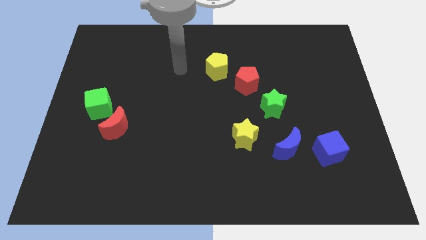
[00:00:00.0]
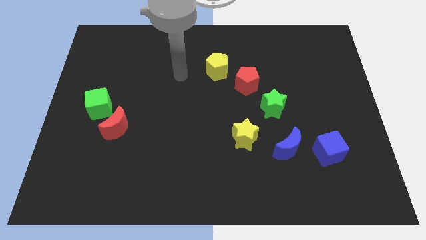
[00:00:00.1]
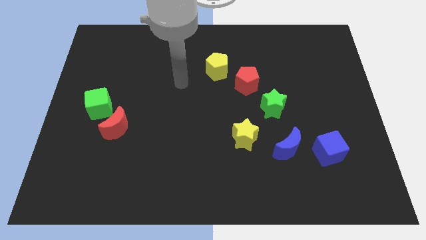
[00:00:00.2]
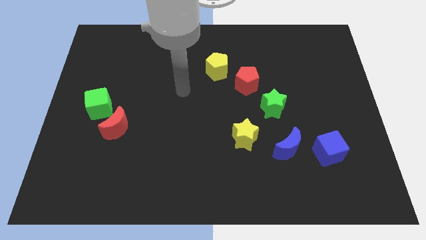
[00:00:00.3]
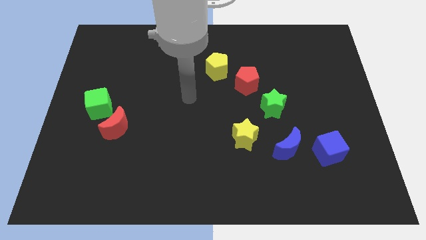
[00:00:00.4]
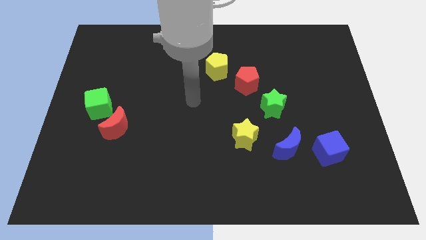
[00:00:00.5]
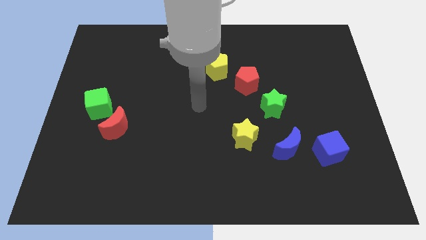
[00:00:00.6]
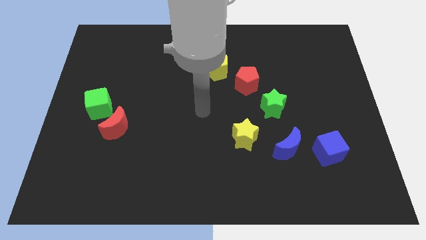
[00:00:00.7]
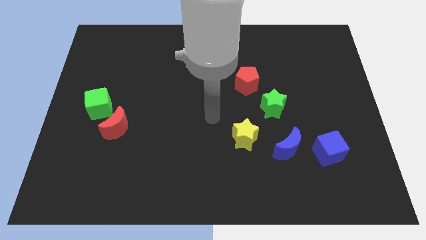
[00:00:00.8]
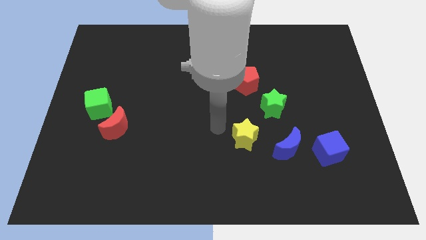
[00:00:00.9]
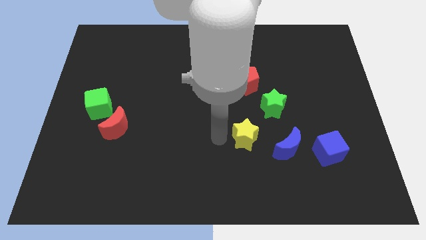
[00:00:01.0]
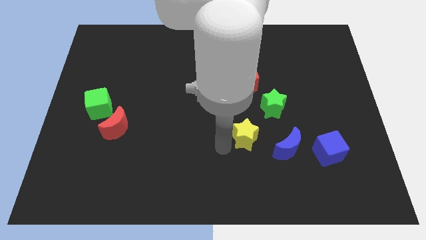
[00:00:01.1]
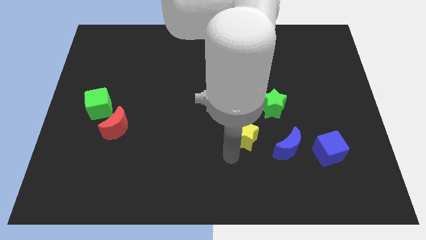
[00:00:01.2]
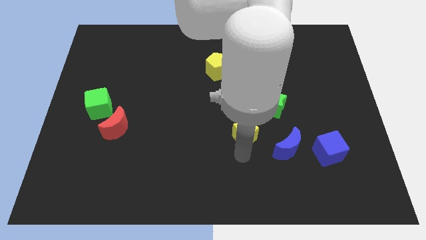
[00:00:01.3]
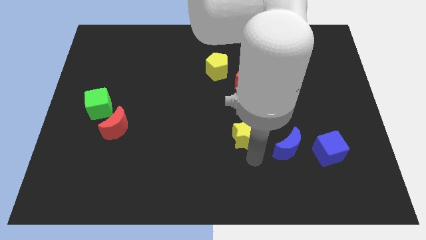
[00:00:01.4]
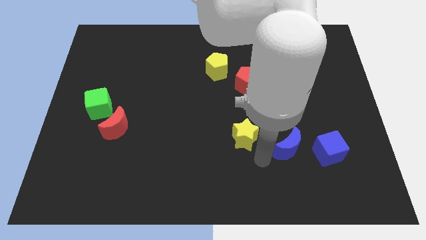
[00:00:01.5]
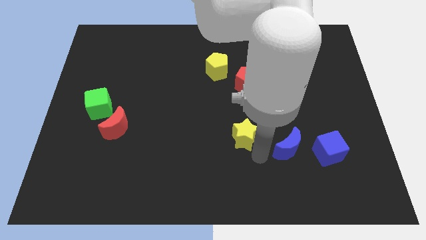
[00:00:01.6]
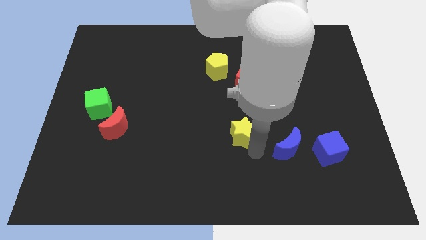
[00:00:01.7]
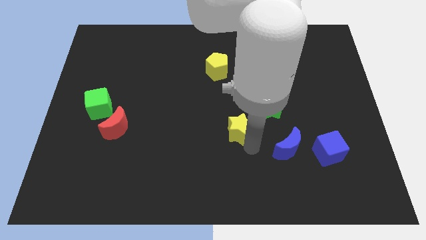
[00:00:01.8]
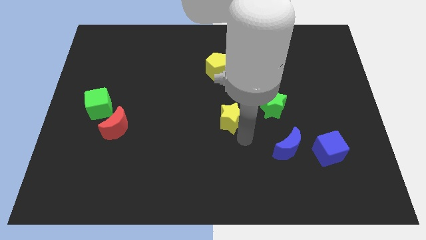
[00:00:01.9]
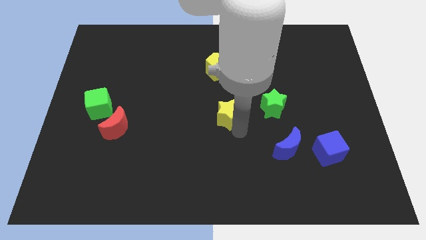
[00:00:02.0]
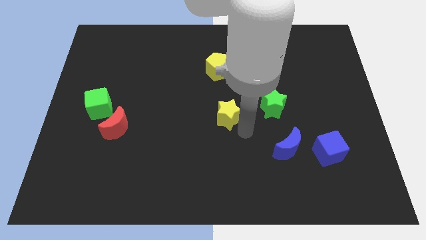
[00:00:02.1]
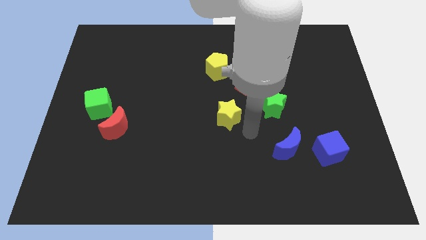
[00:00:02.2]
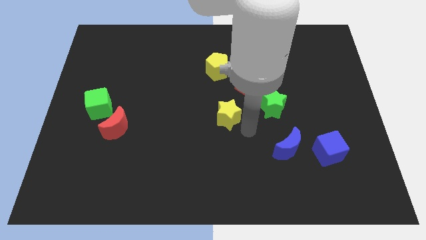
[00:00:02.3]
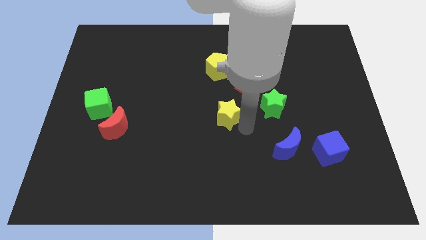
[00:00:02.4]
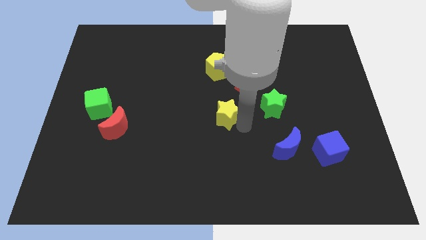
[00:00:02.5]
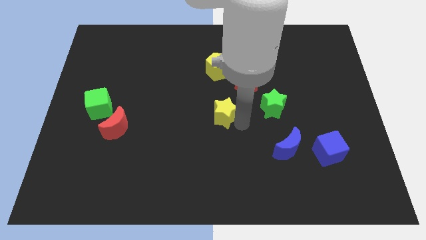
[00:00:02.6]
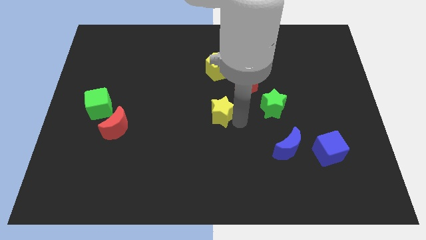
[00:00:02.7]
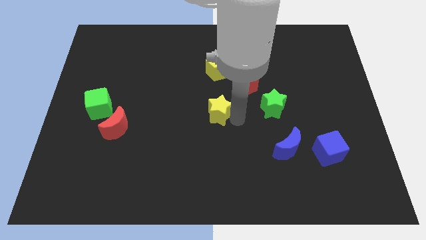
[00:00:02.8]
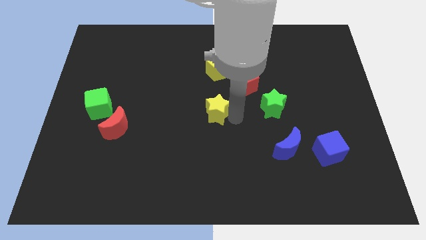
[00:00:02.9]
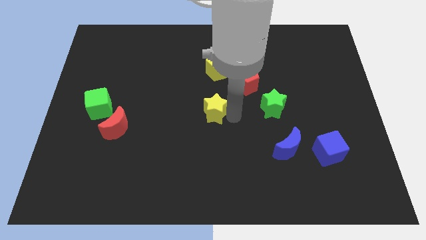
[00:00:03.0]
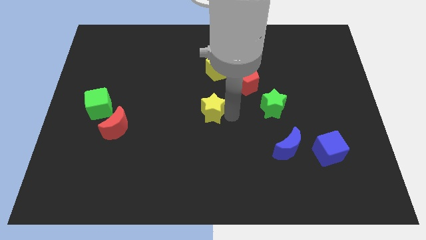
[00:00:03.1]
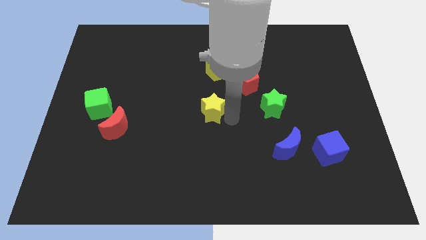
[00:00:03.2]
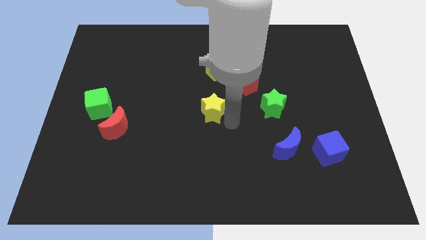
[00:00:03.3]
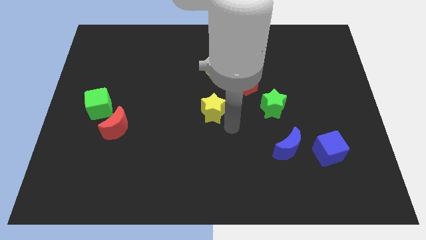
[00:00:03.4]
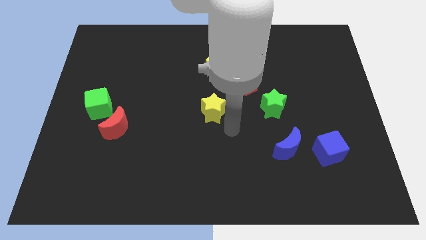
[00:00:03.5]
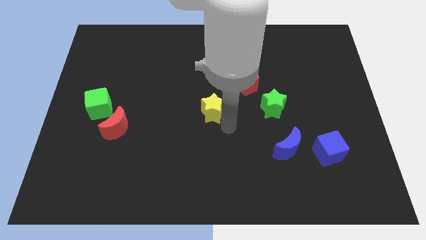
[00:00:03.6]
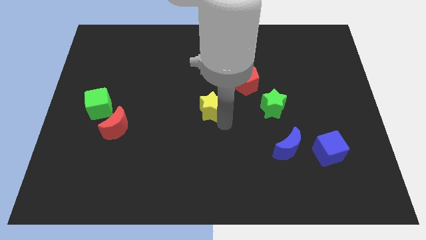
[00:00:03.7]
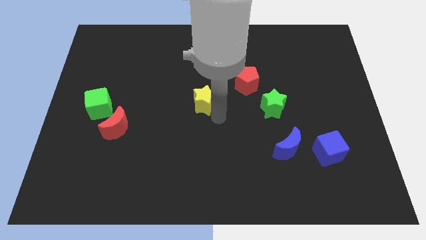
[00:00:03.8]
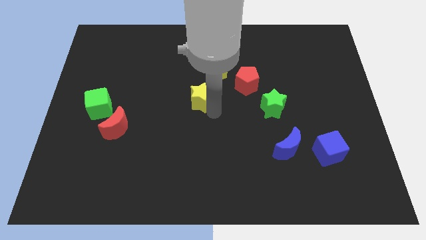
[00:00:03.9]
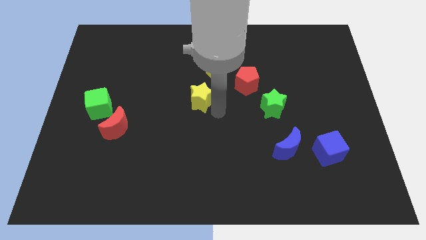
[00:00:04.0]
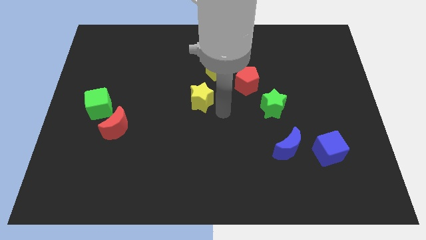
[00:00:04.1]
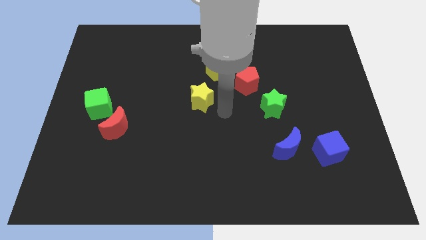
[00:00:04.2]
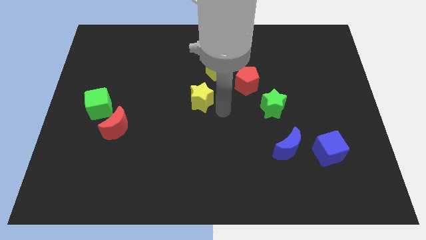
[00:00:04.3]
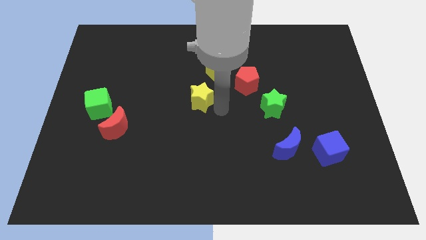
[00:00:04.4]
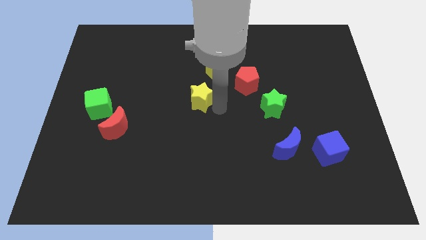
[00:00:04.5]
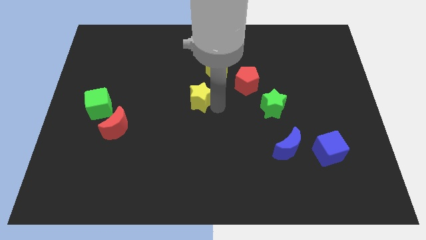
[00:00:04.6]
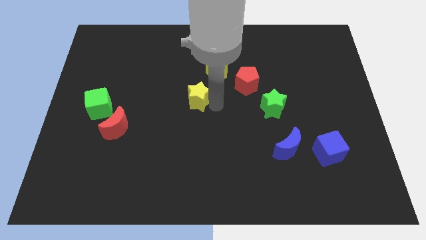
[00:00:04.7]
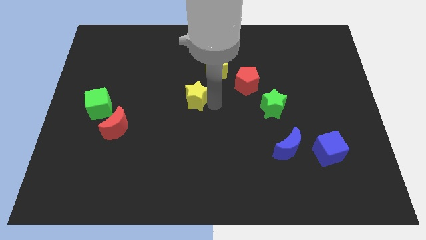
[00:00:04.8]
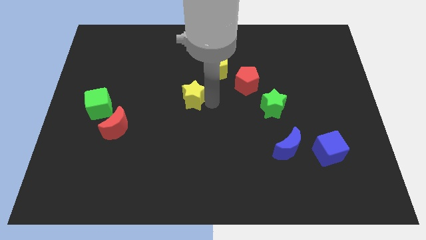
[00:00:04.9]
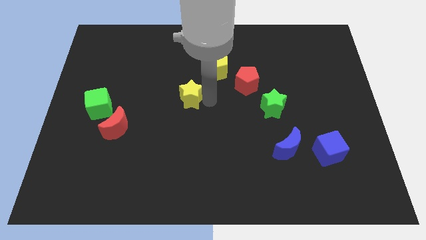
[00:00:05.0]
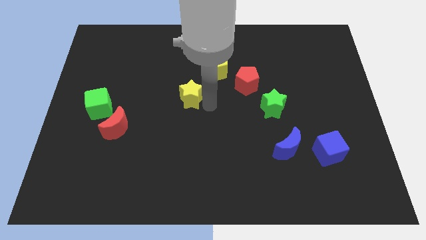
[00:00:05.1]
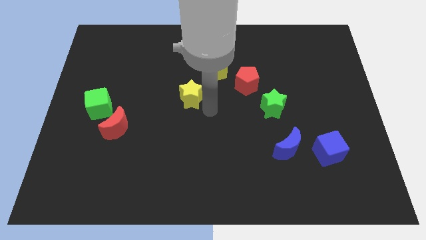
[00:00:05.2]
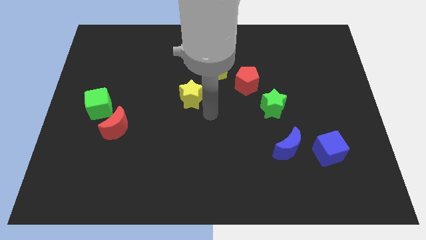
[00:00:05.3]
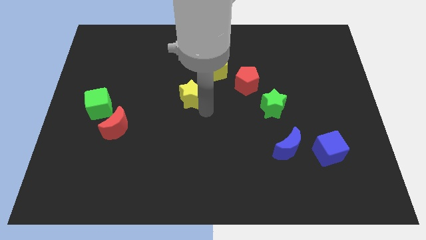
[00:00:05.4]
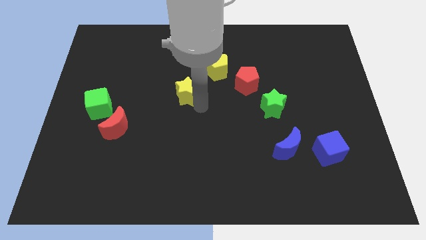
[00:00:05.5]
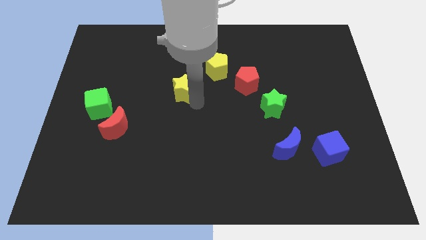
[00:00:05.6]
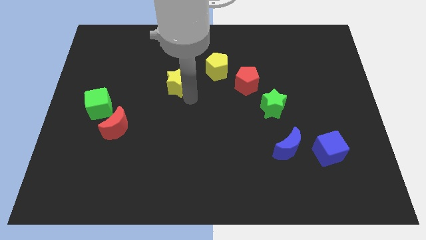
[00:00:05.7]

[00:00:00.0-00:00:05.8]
push the yellow star upwards and then to the left

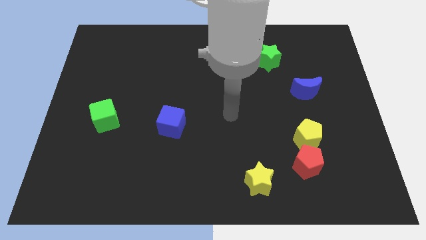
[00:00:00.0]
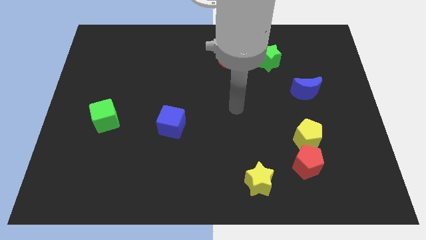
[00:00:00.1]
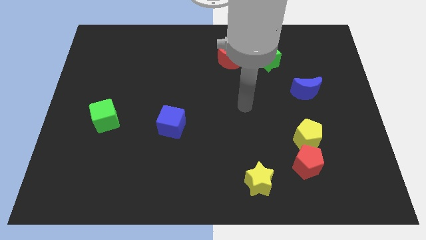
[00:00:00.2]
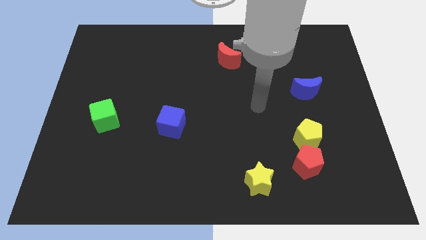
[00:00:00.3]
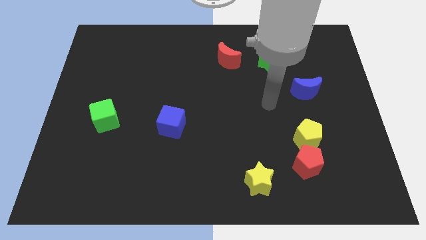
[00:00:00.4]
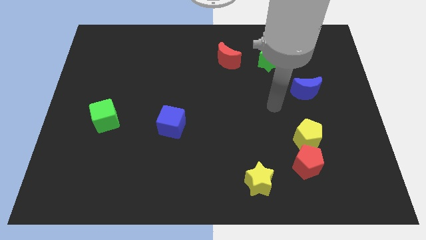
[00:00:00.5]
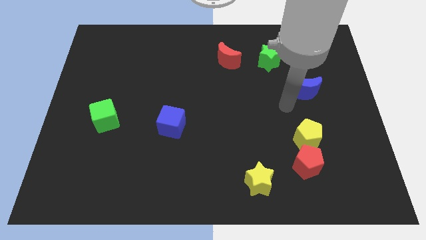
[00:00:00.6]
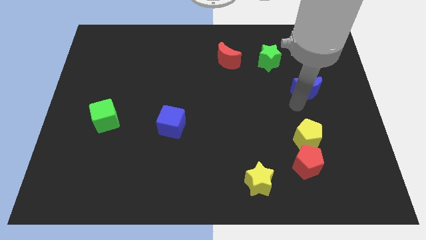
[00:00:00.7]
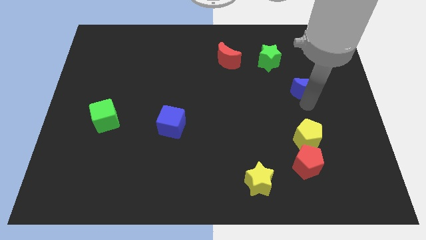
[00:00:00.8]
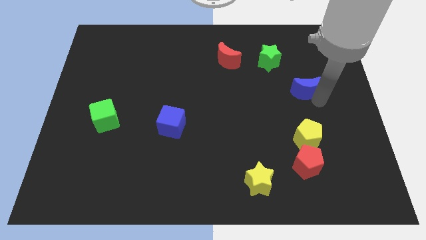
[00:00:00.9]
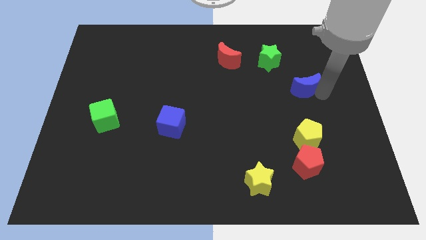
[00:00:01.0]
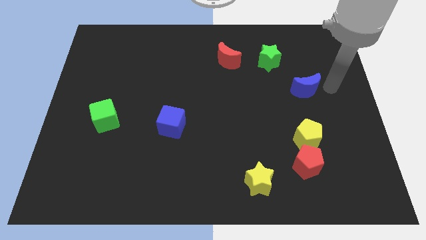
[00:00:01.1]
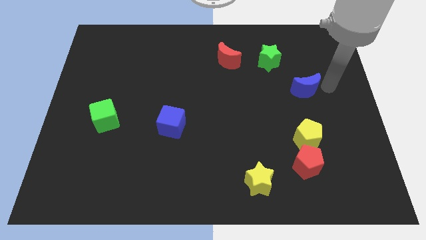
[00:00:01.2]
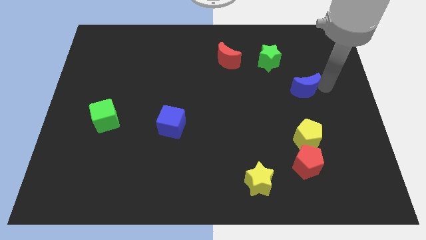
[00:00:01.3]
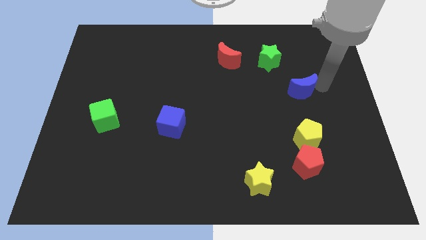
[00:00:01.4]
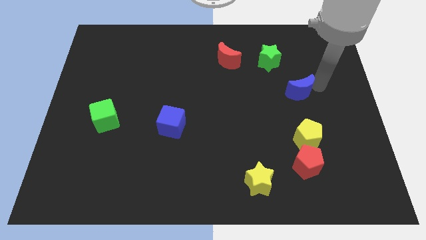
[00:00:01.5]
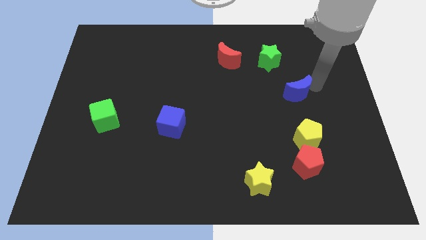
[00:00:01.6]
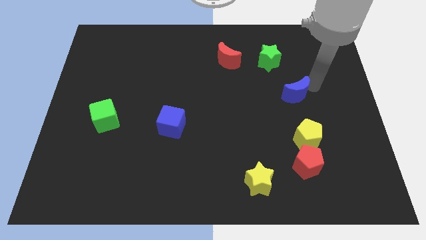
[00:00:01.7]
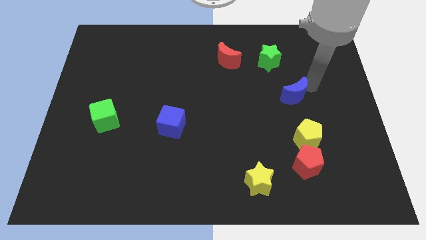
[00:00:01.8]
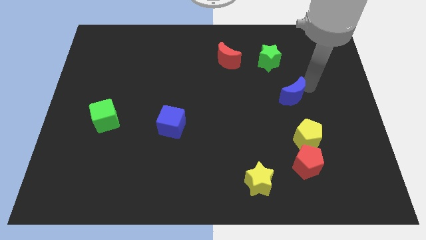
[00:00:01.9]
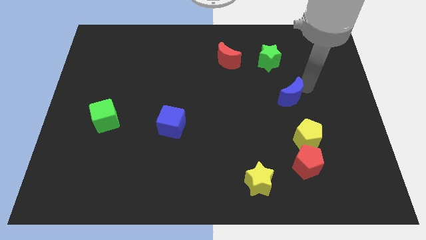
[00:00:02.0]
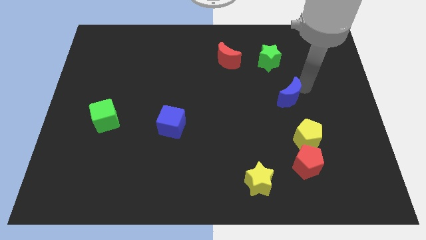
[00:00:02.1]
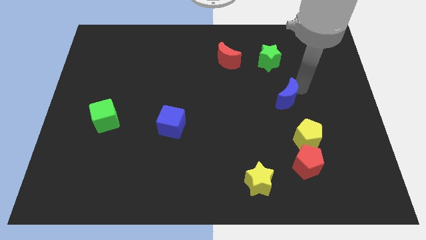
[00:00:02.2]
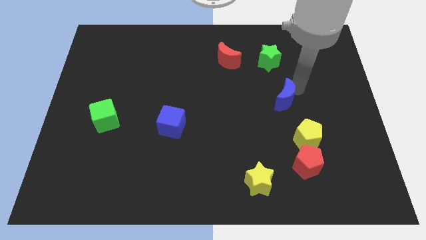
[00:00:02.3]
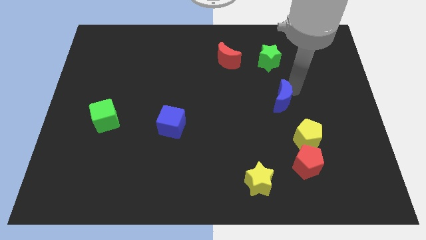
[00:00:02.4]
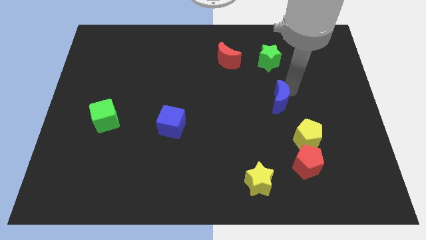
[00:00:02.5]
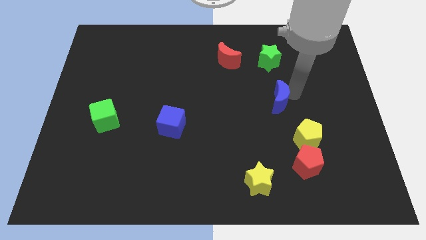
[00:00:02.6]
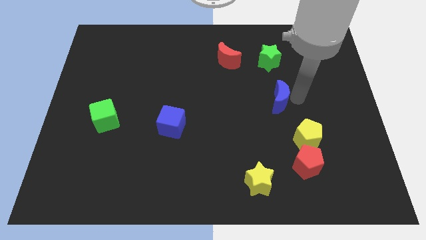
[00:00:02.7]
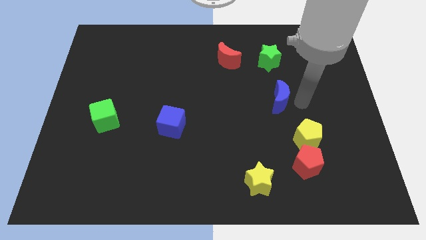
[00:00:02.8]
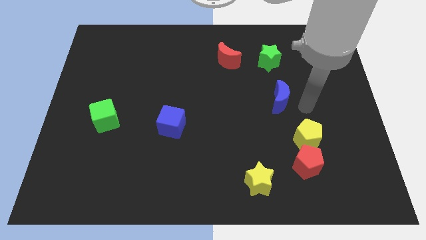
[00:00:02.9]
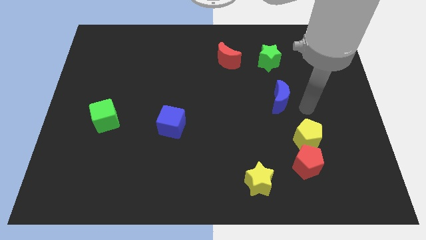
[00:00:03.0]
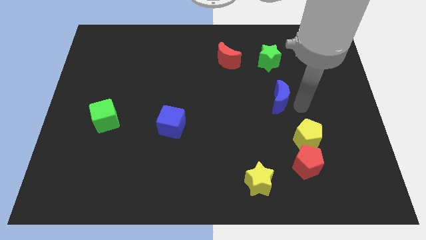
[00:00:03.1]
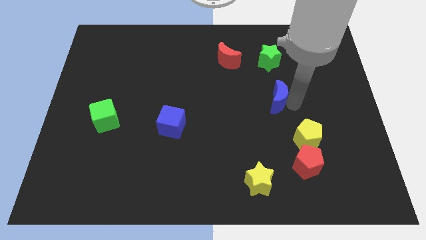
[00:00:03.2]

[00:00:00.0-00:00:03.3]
slide the blue moon a bit to the left
